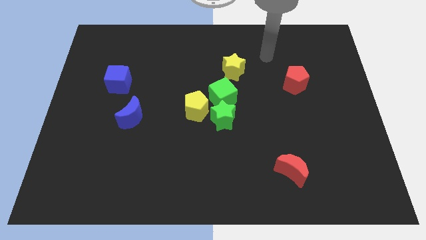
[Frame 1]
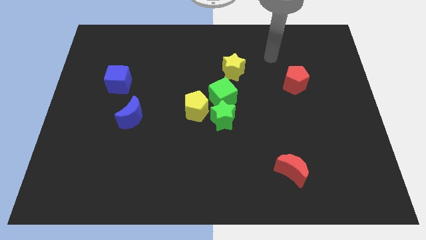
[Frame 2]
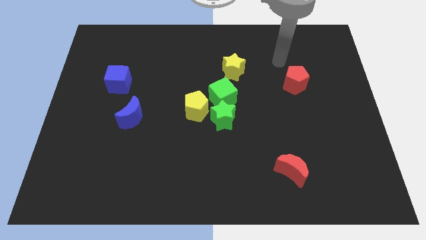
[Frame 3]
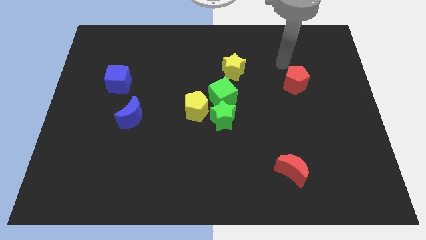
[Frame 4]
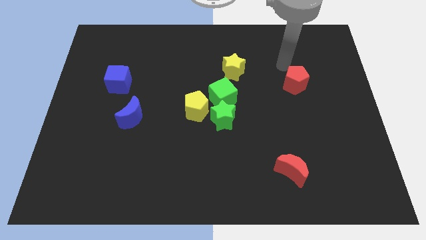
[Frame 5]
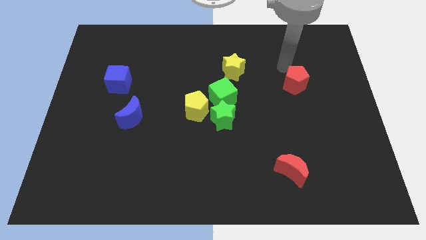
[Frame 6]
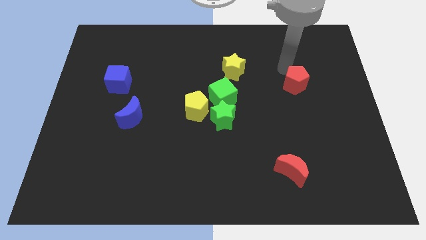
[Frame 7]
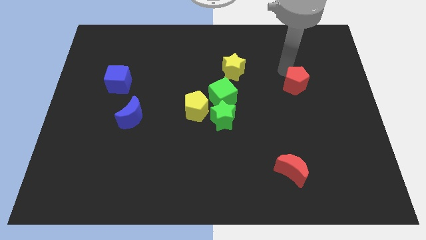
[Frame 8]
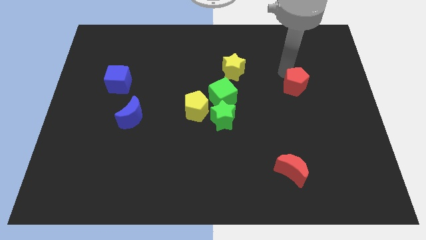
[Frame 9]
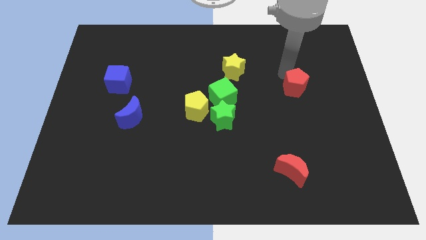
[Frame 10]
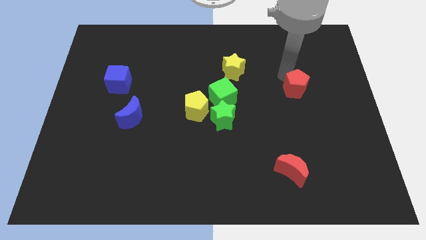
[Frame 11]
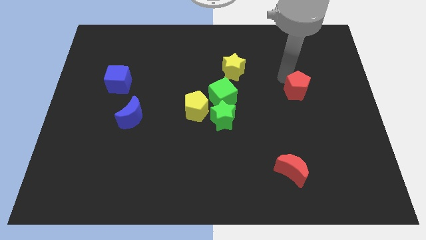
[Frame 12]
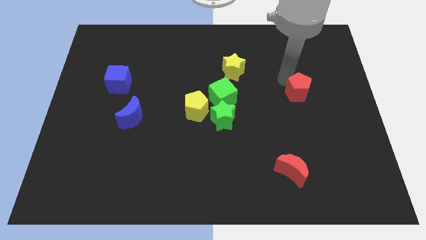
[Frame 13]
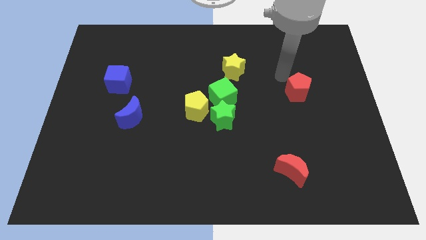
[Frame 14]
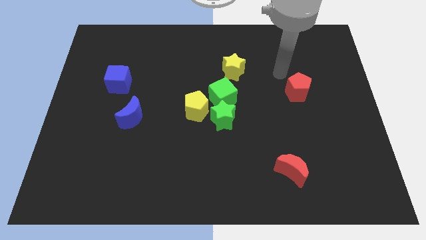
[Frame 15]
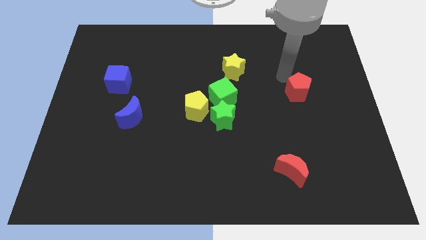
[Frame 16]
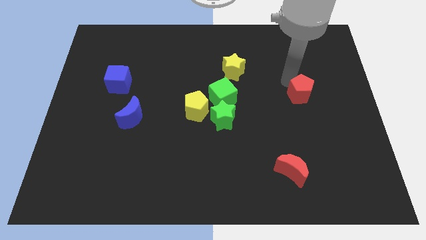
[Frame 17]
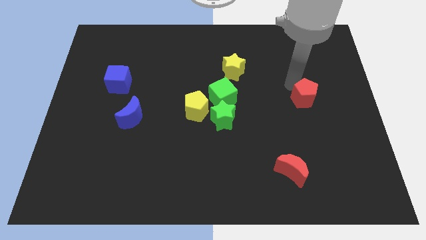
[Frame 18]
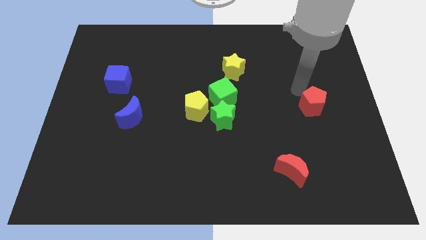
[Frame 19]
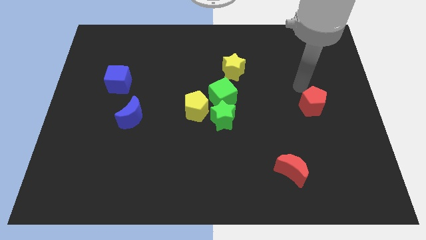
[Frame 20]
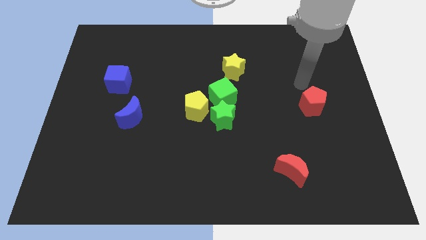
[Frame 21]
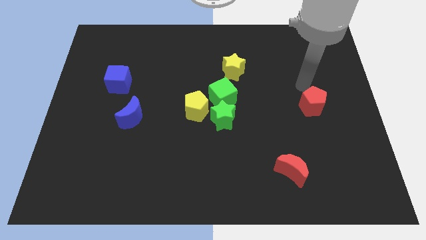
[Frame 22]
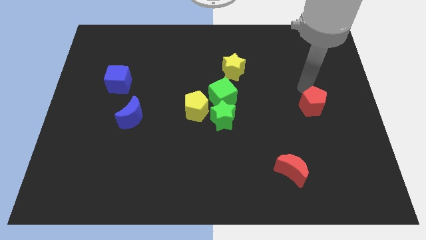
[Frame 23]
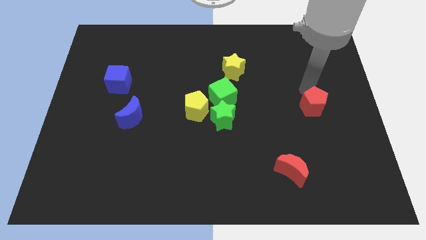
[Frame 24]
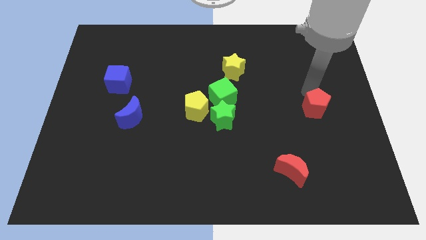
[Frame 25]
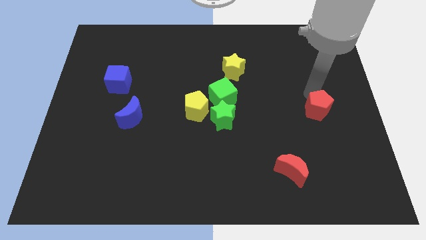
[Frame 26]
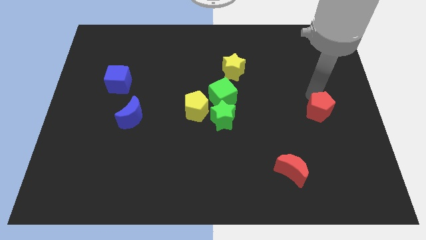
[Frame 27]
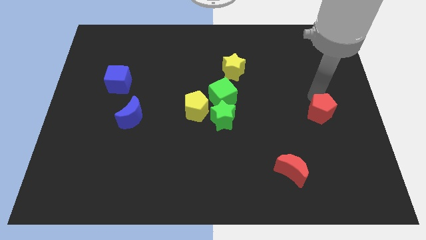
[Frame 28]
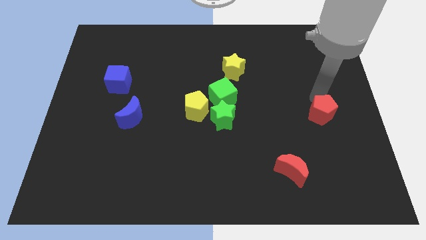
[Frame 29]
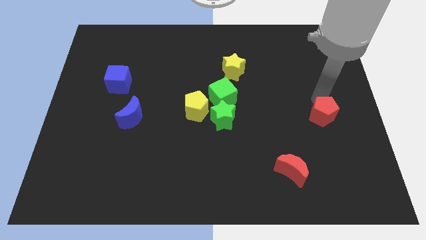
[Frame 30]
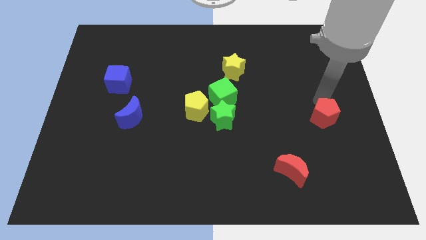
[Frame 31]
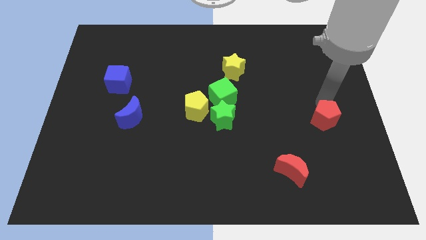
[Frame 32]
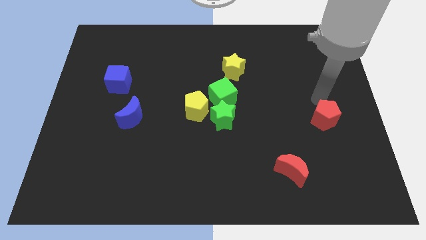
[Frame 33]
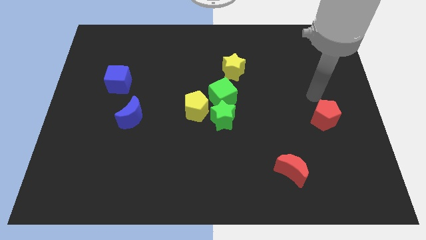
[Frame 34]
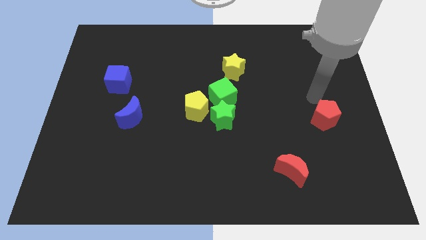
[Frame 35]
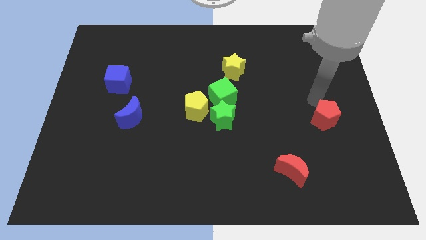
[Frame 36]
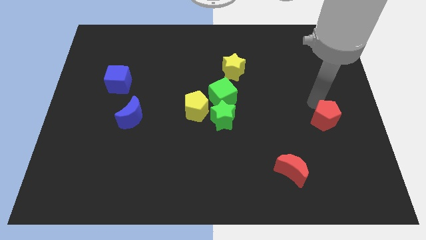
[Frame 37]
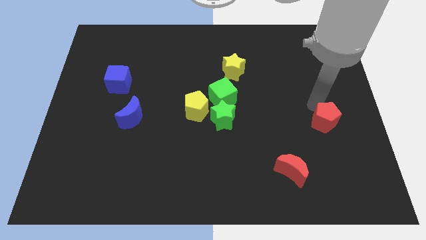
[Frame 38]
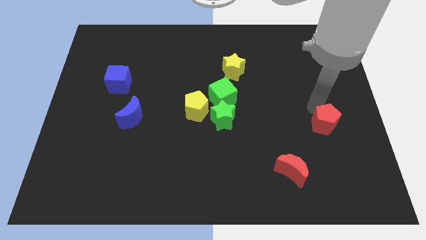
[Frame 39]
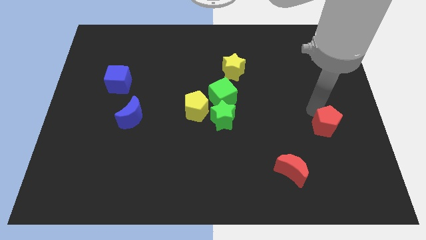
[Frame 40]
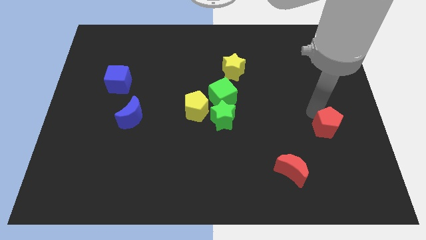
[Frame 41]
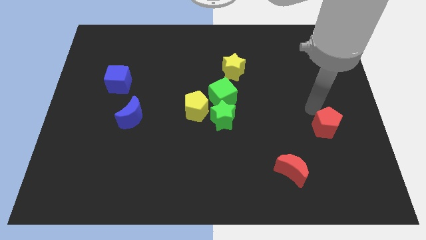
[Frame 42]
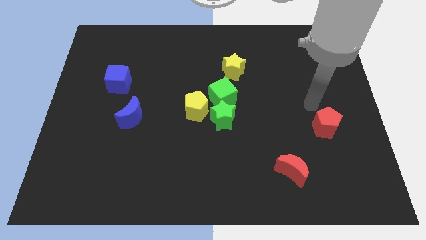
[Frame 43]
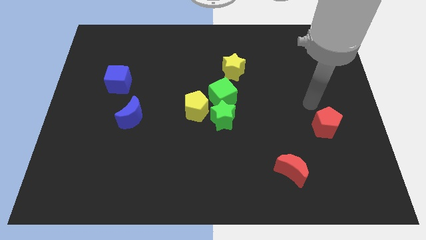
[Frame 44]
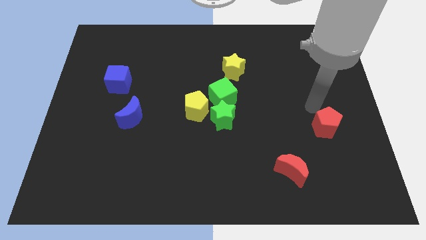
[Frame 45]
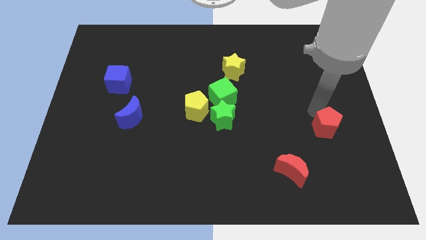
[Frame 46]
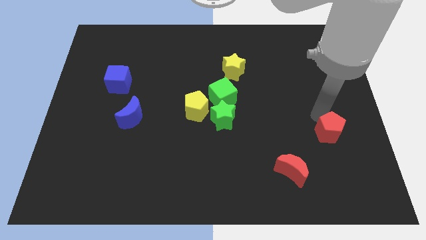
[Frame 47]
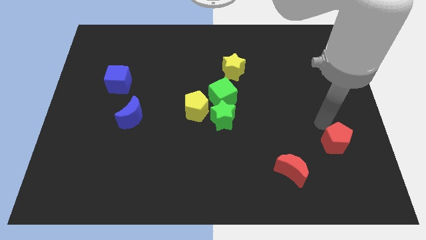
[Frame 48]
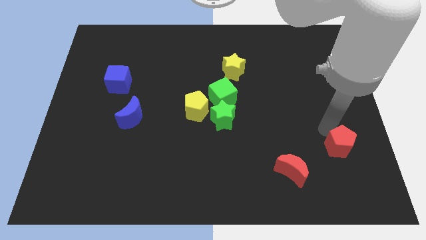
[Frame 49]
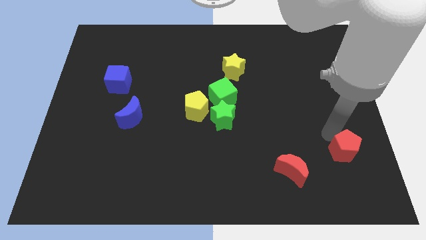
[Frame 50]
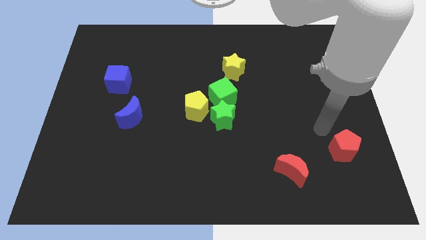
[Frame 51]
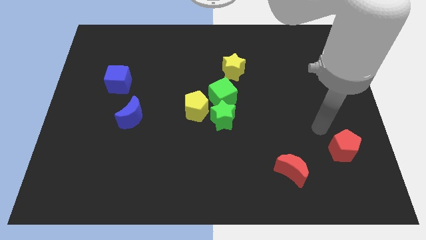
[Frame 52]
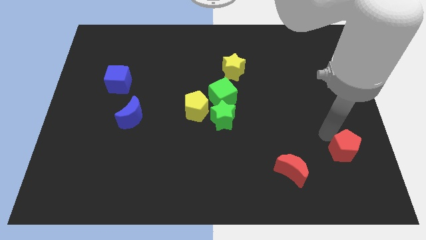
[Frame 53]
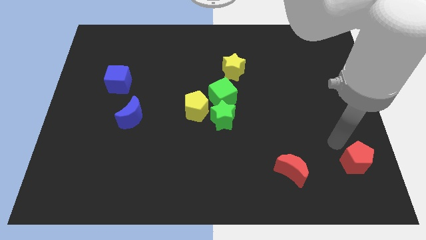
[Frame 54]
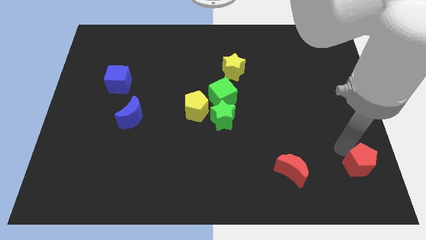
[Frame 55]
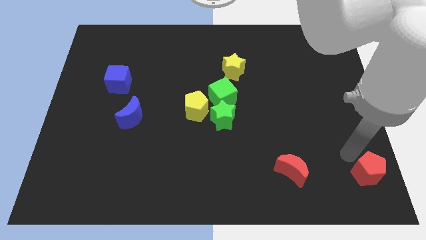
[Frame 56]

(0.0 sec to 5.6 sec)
move the red pentagon to the lower right corner

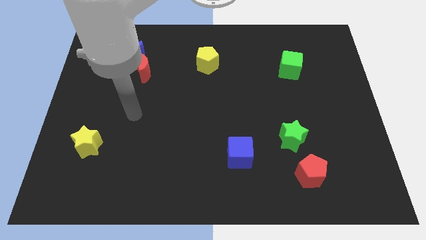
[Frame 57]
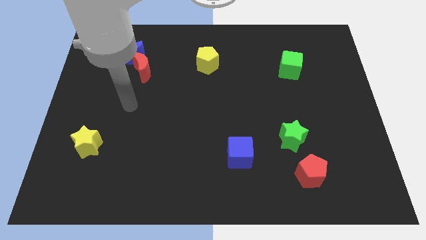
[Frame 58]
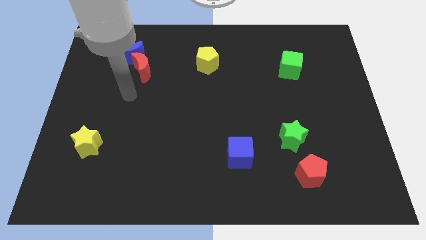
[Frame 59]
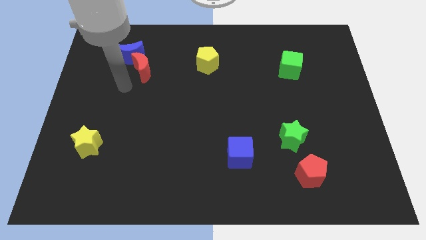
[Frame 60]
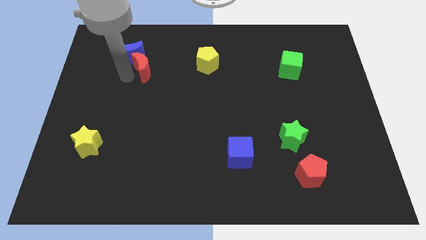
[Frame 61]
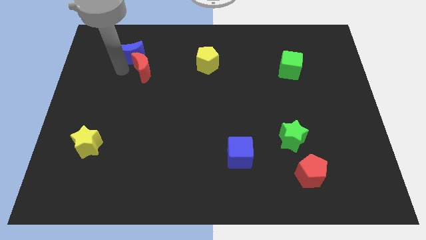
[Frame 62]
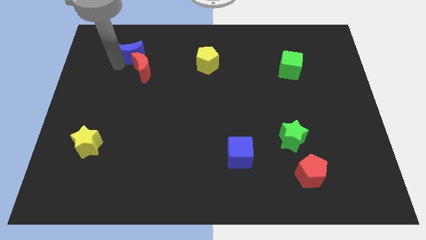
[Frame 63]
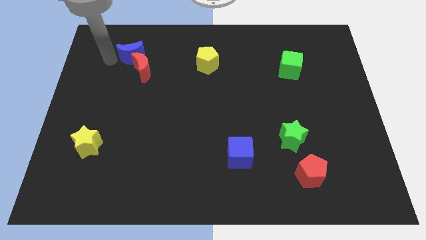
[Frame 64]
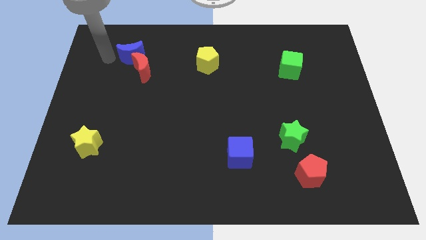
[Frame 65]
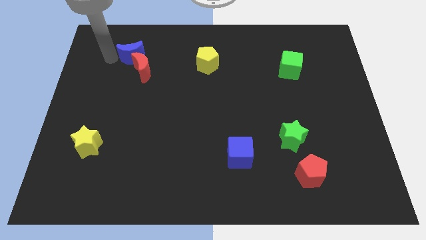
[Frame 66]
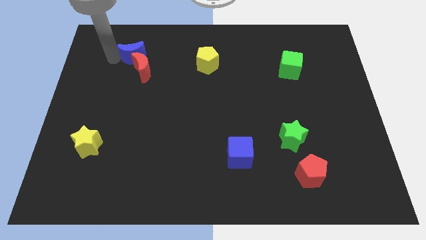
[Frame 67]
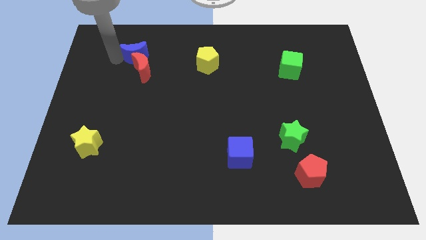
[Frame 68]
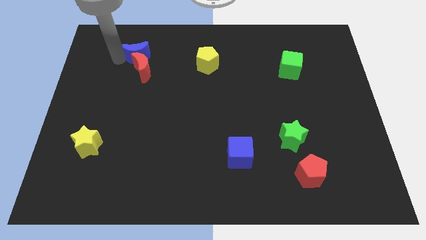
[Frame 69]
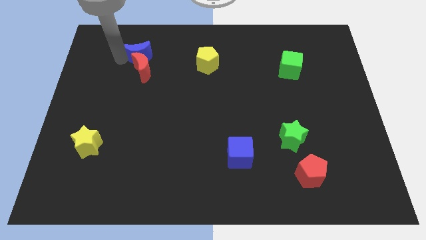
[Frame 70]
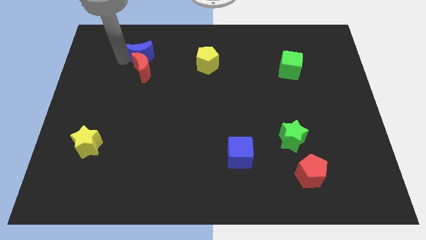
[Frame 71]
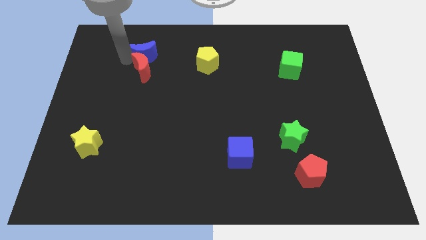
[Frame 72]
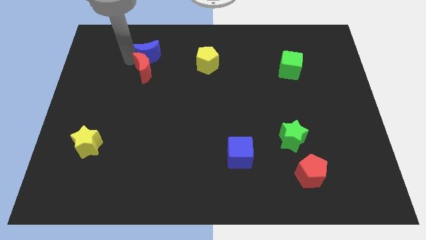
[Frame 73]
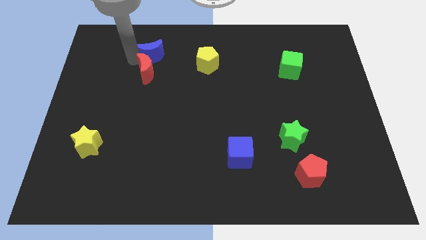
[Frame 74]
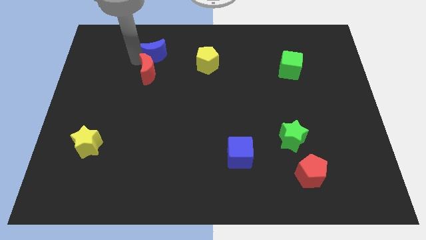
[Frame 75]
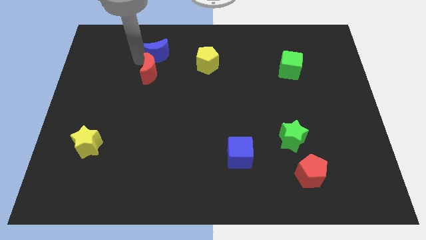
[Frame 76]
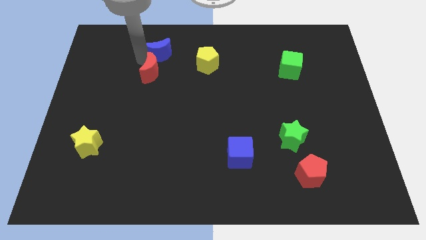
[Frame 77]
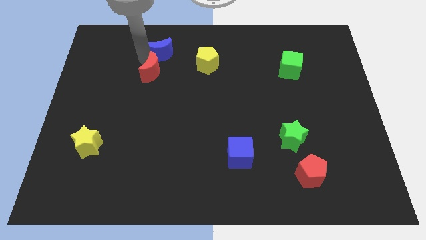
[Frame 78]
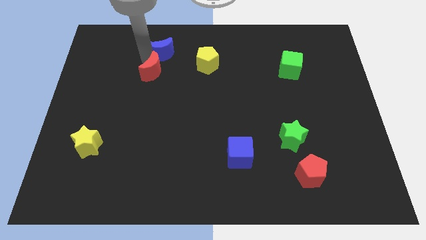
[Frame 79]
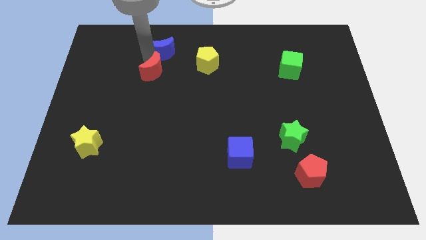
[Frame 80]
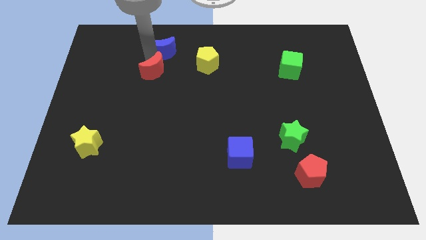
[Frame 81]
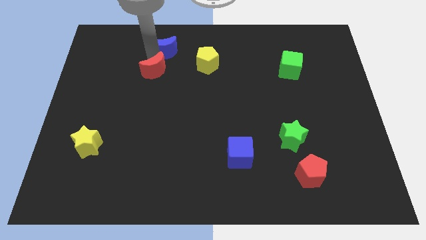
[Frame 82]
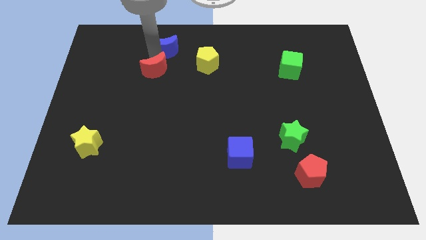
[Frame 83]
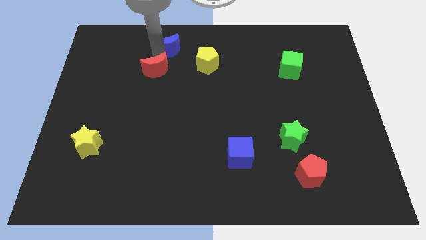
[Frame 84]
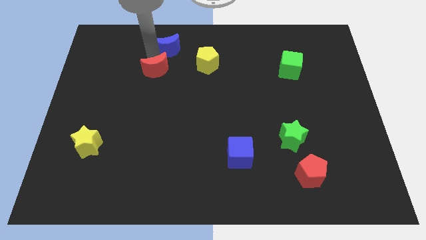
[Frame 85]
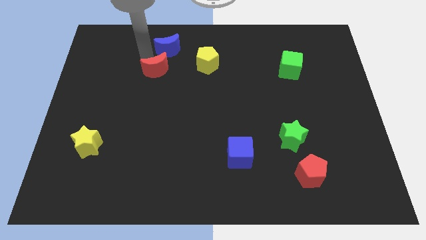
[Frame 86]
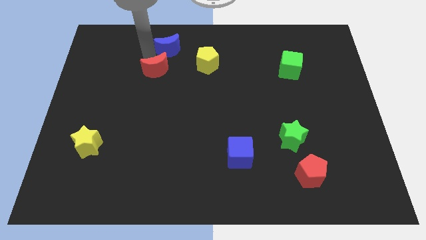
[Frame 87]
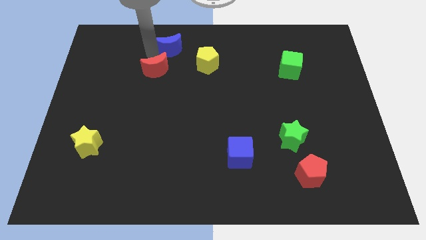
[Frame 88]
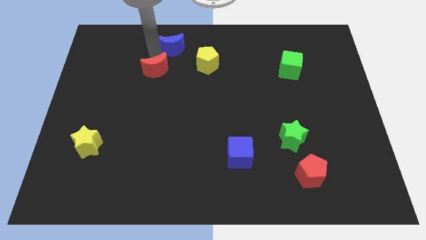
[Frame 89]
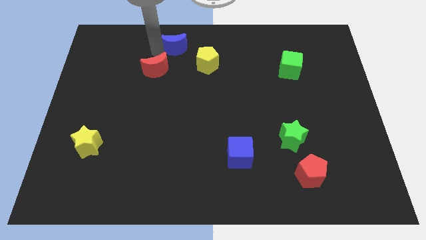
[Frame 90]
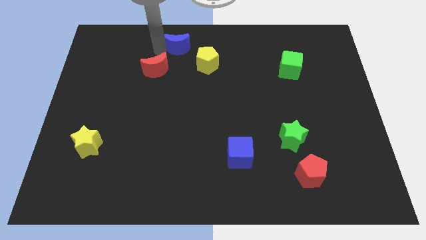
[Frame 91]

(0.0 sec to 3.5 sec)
put the blue moon to the top side
